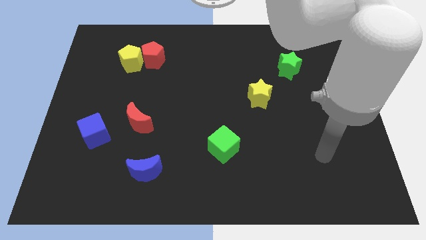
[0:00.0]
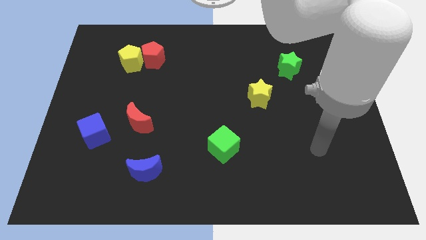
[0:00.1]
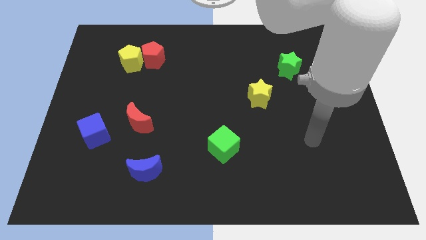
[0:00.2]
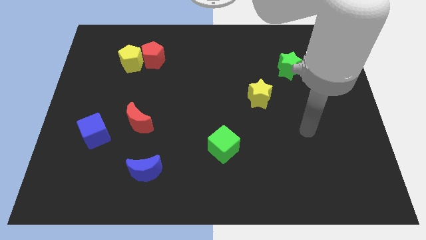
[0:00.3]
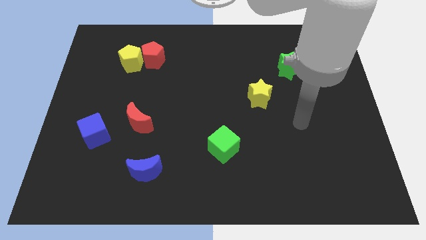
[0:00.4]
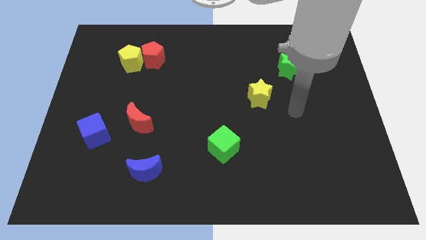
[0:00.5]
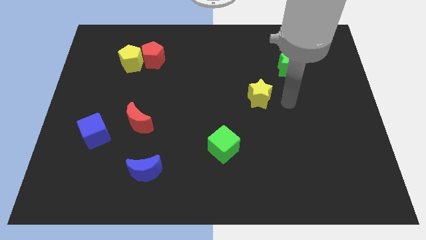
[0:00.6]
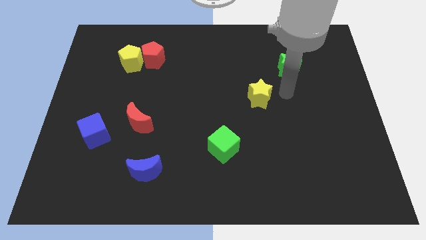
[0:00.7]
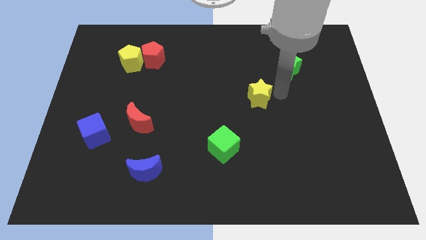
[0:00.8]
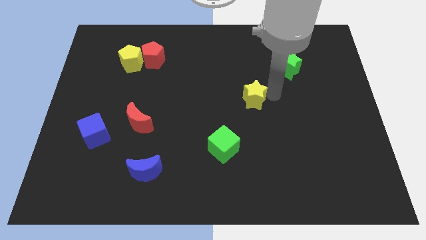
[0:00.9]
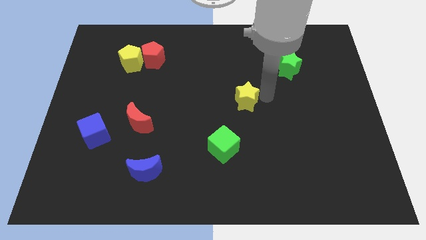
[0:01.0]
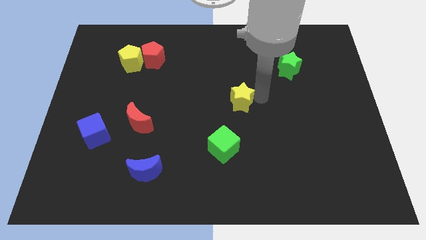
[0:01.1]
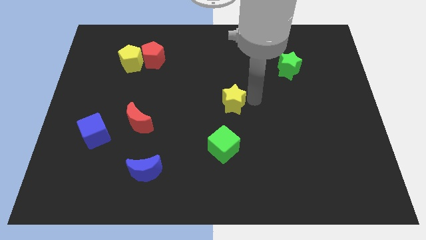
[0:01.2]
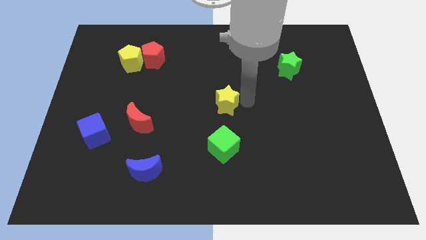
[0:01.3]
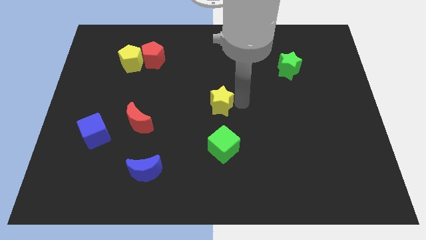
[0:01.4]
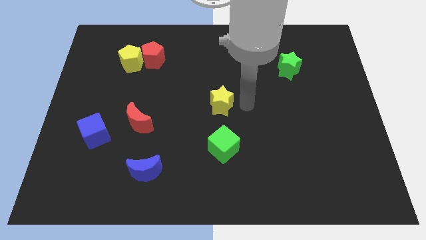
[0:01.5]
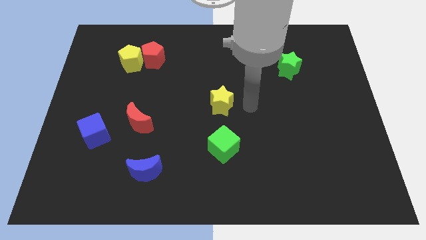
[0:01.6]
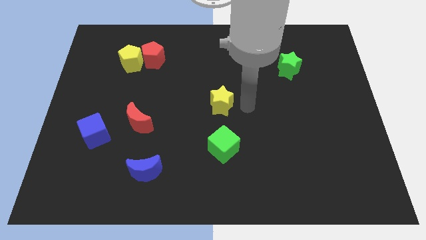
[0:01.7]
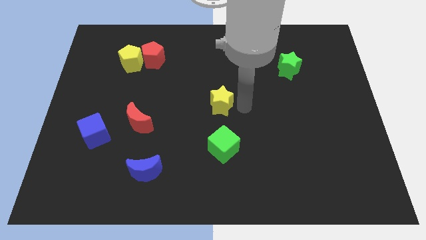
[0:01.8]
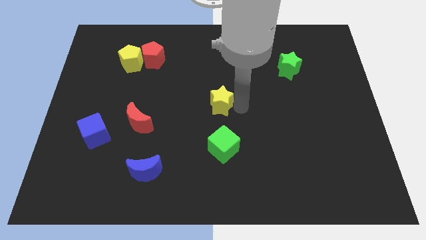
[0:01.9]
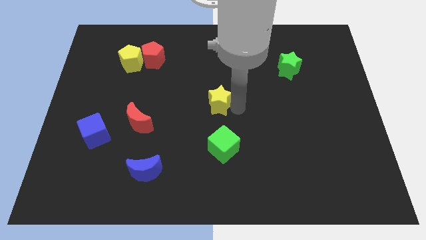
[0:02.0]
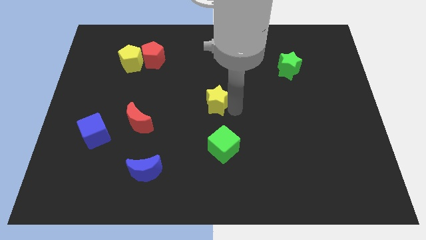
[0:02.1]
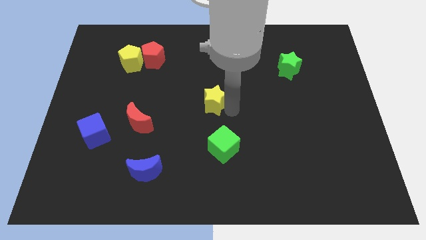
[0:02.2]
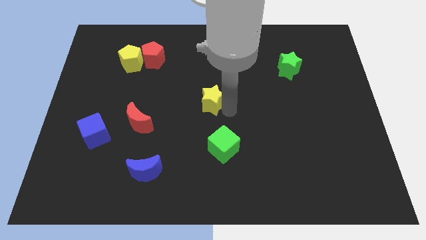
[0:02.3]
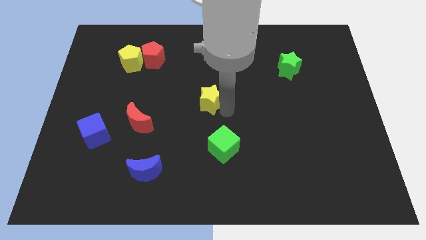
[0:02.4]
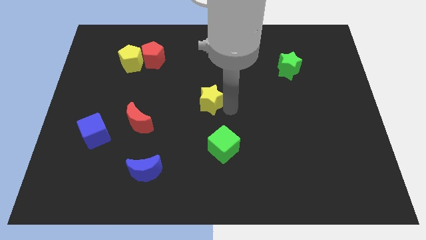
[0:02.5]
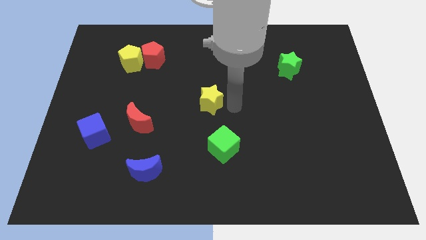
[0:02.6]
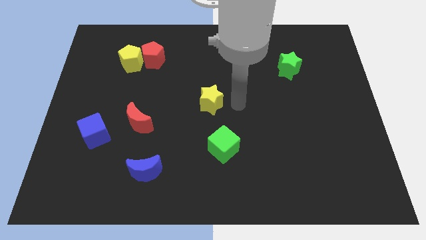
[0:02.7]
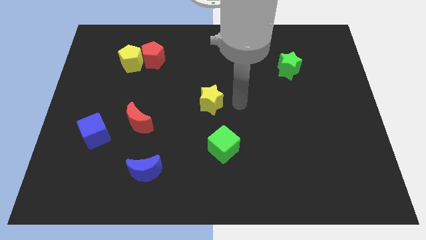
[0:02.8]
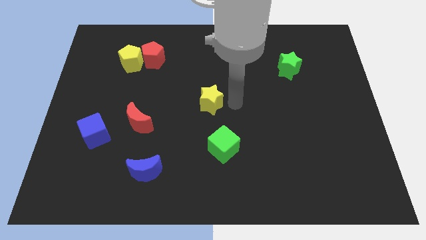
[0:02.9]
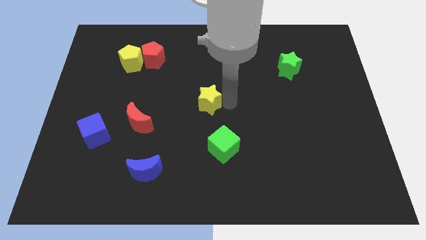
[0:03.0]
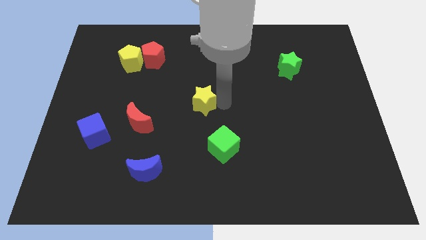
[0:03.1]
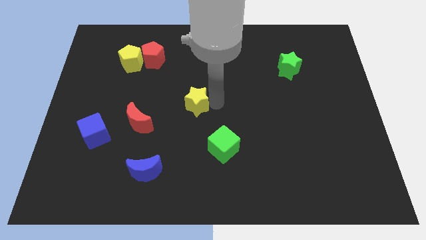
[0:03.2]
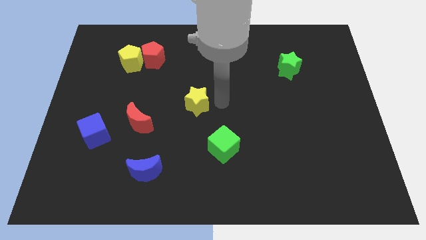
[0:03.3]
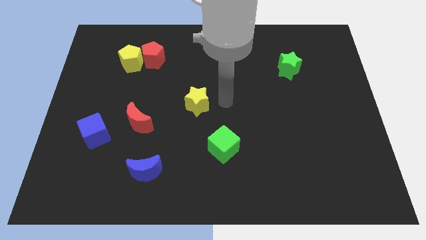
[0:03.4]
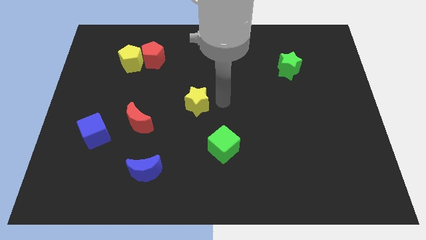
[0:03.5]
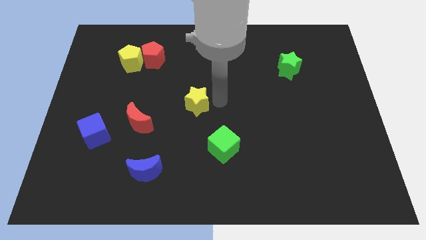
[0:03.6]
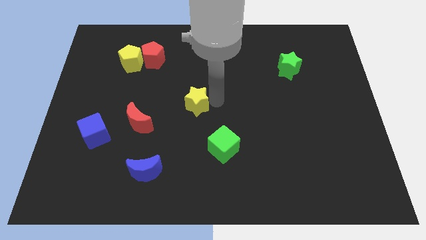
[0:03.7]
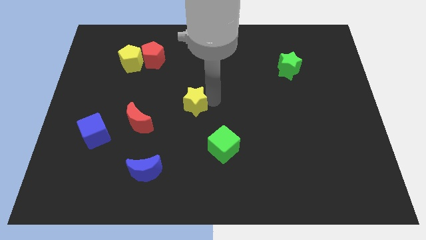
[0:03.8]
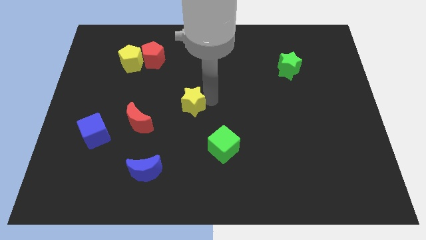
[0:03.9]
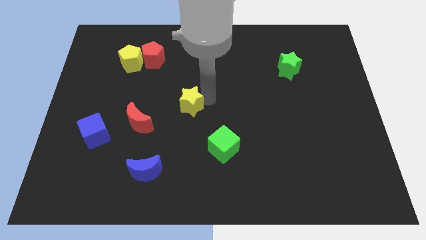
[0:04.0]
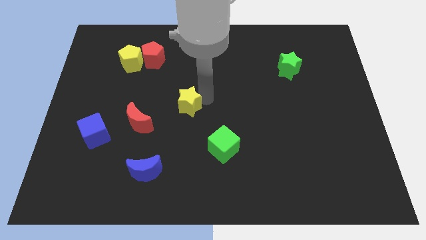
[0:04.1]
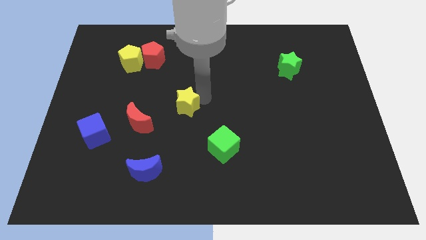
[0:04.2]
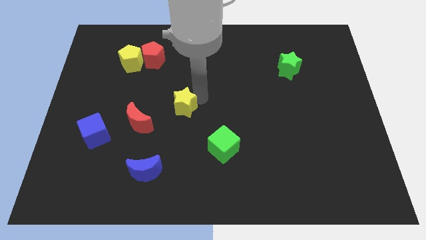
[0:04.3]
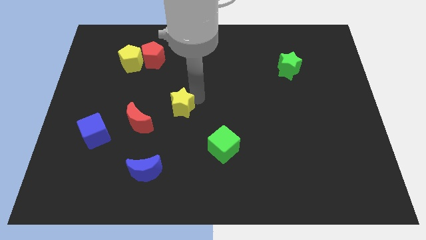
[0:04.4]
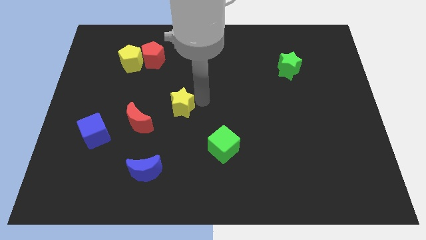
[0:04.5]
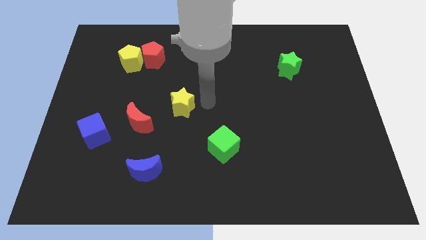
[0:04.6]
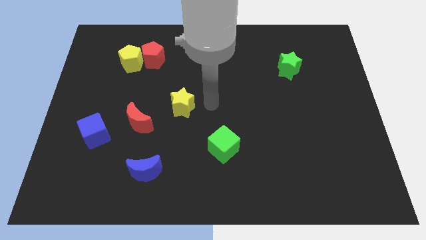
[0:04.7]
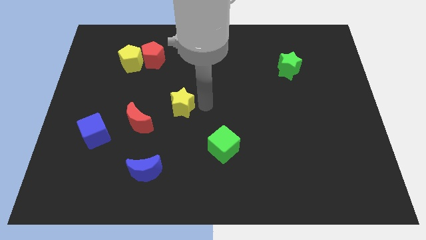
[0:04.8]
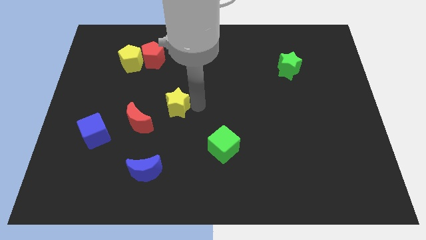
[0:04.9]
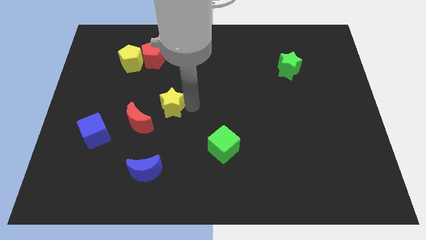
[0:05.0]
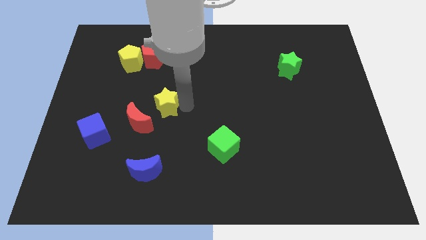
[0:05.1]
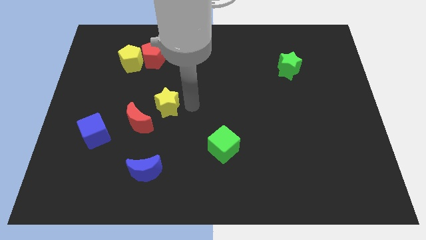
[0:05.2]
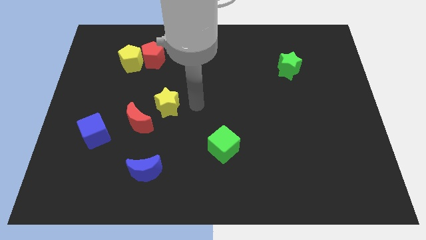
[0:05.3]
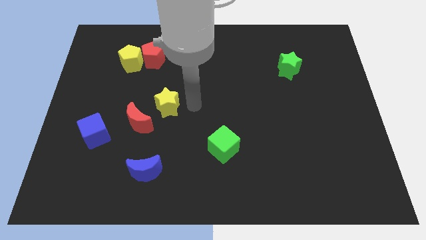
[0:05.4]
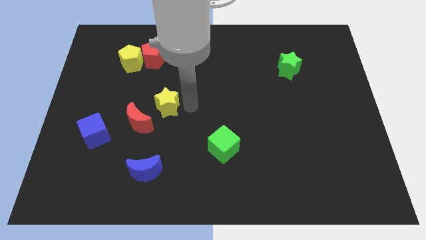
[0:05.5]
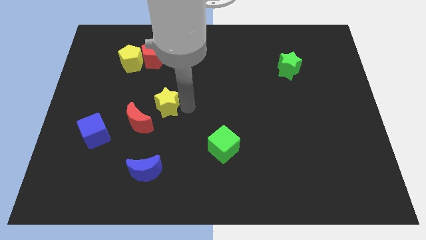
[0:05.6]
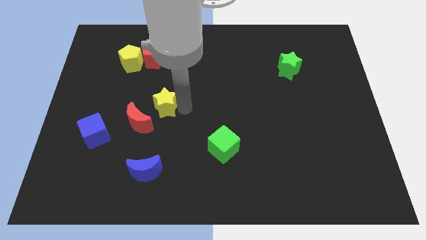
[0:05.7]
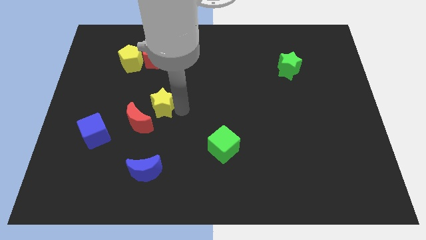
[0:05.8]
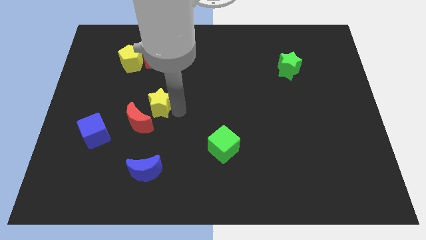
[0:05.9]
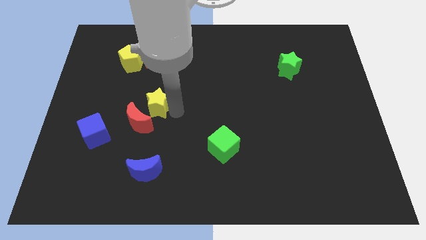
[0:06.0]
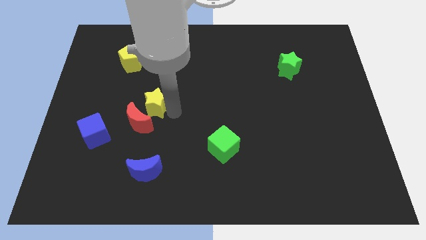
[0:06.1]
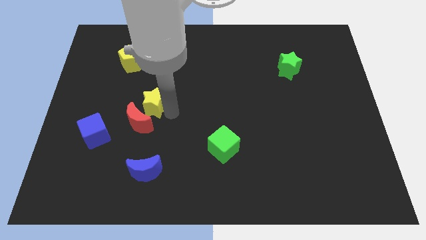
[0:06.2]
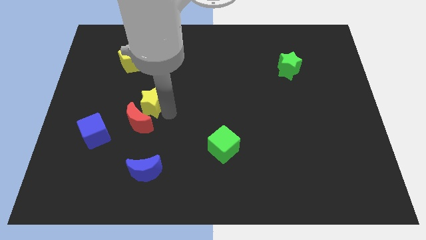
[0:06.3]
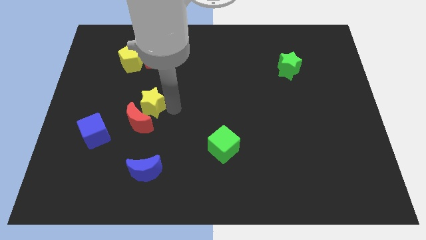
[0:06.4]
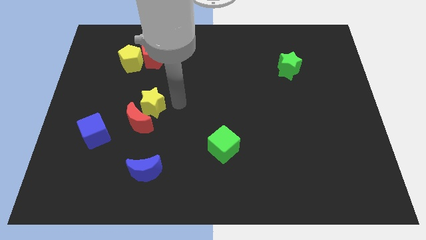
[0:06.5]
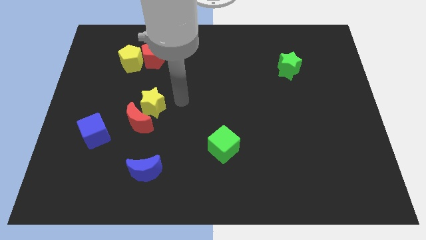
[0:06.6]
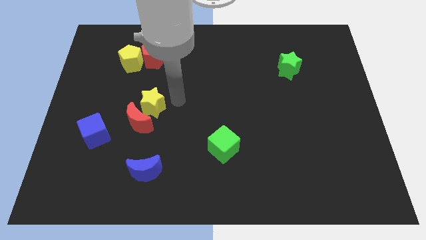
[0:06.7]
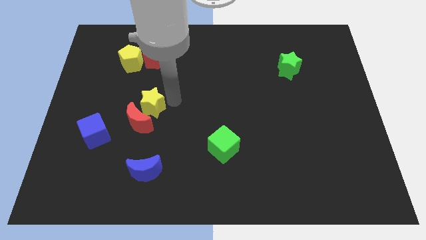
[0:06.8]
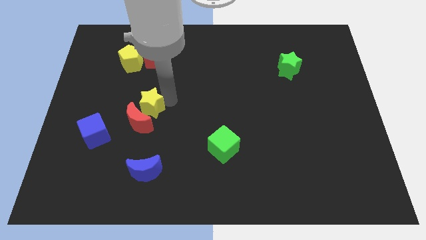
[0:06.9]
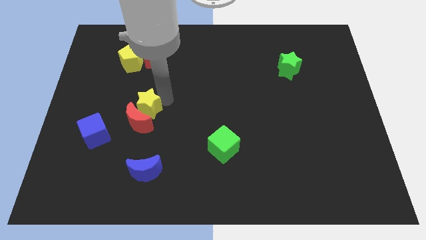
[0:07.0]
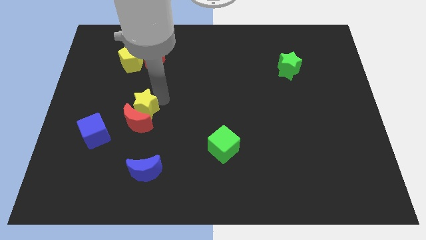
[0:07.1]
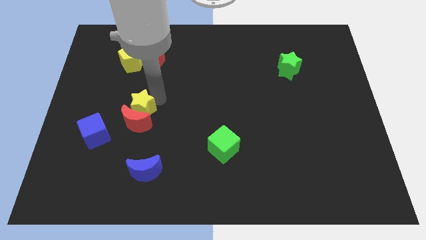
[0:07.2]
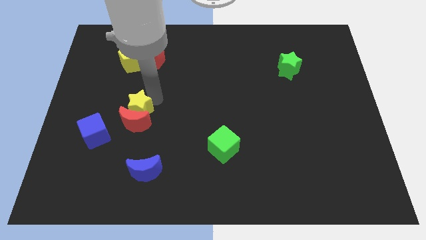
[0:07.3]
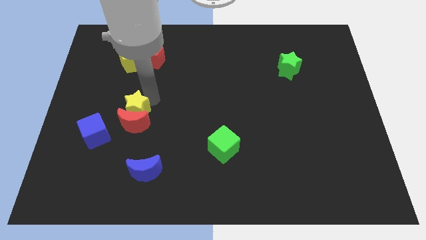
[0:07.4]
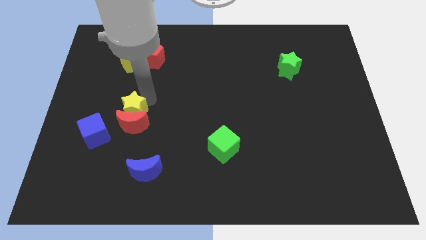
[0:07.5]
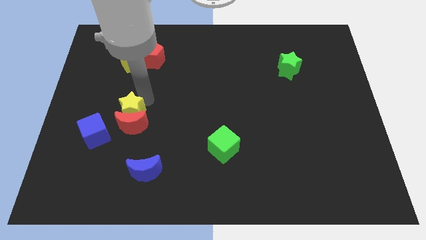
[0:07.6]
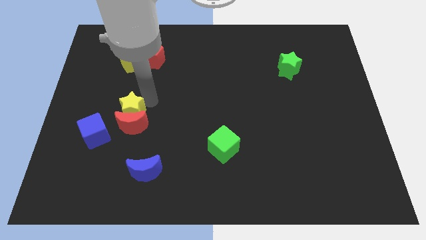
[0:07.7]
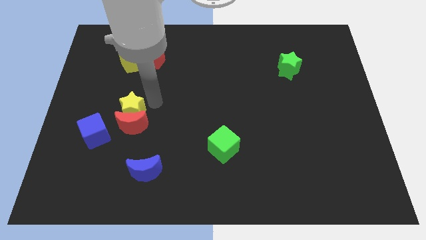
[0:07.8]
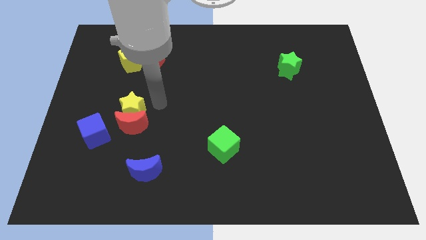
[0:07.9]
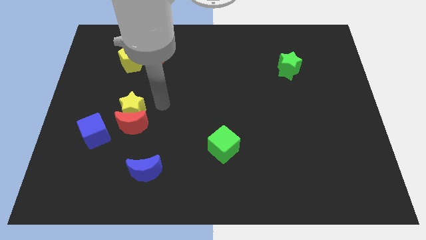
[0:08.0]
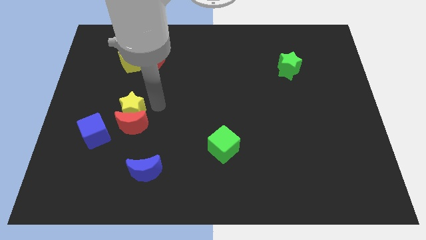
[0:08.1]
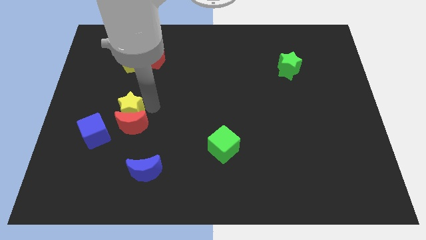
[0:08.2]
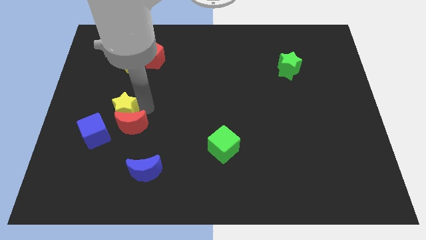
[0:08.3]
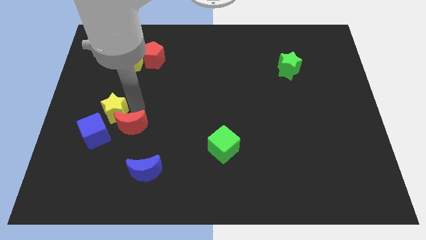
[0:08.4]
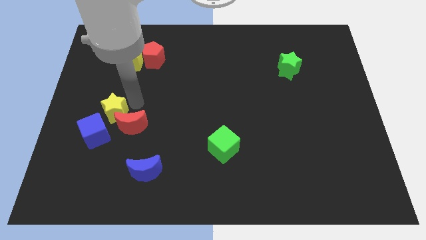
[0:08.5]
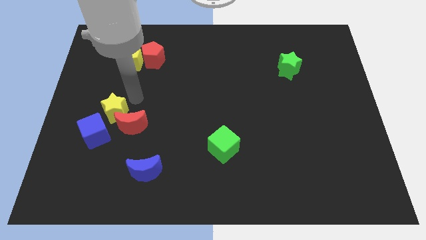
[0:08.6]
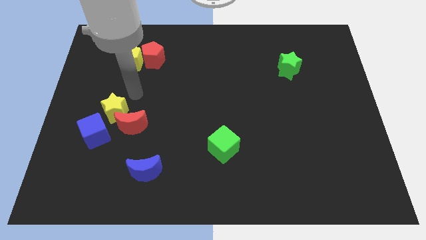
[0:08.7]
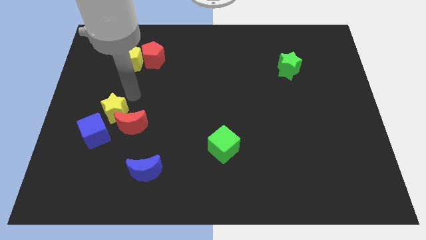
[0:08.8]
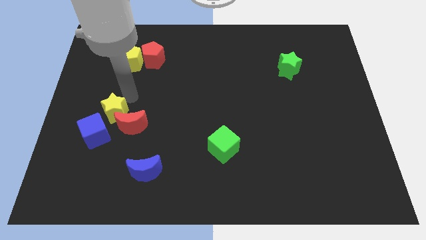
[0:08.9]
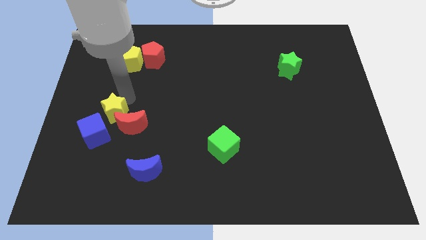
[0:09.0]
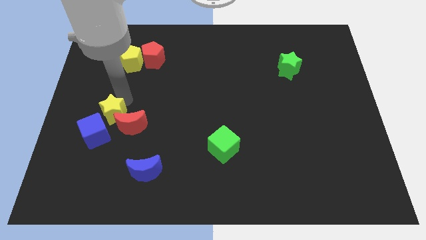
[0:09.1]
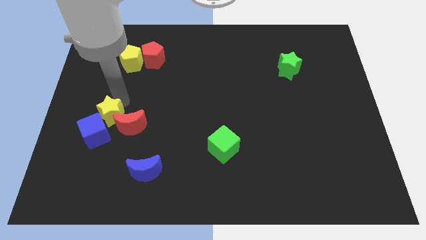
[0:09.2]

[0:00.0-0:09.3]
push the yellow star to the blue cube
